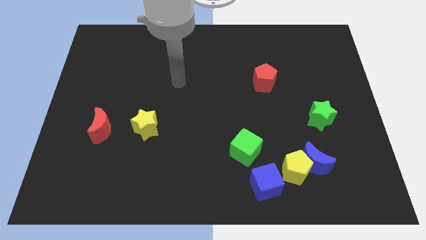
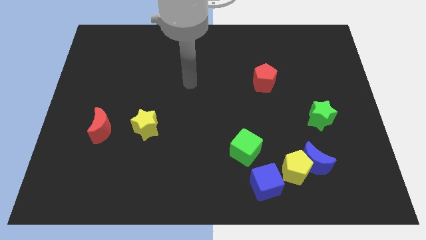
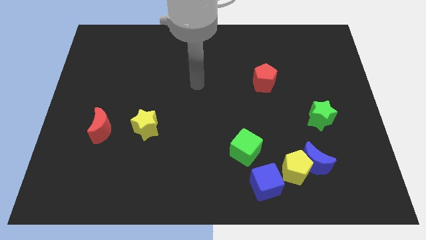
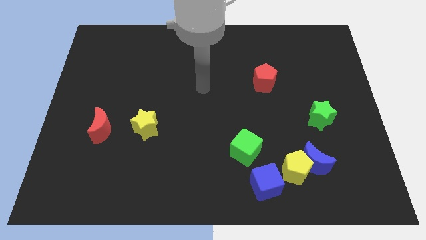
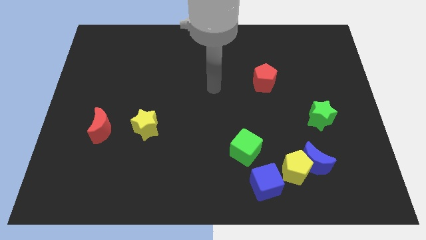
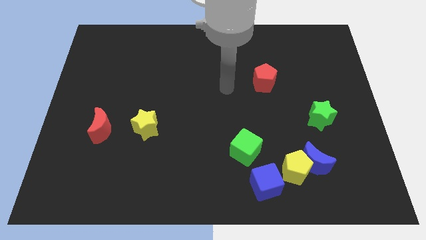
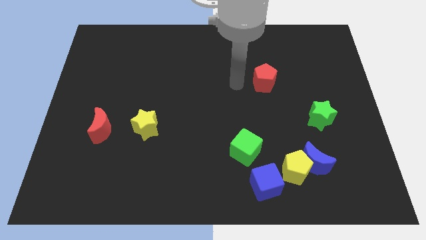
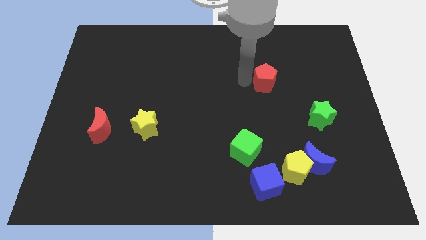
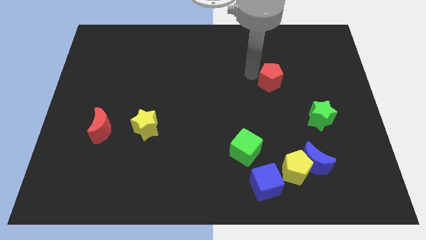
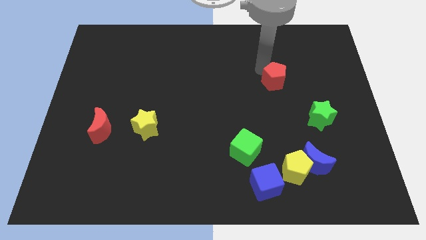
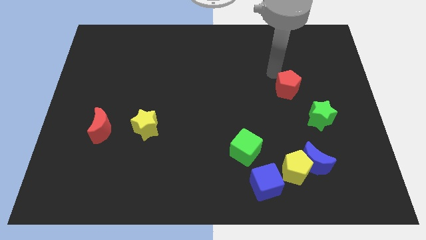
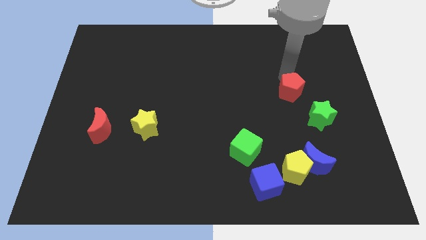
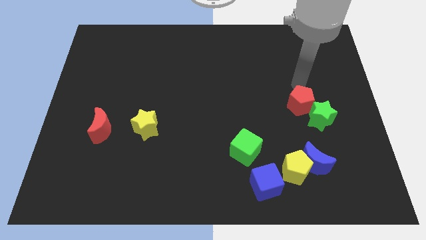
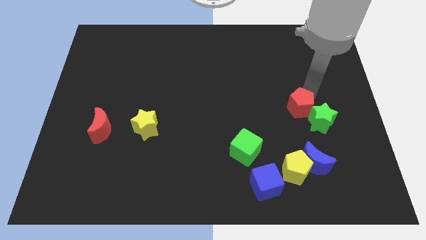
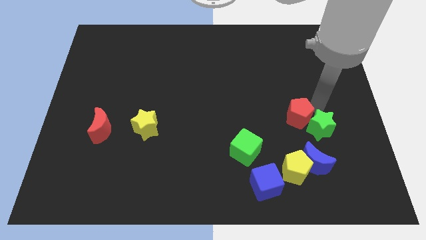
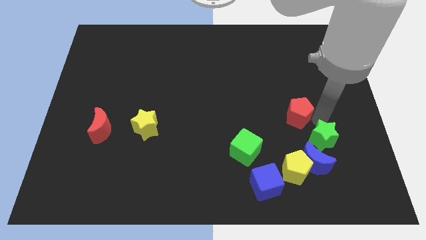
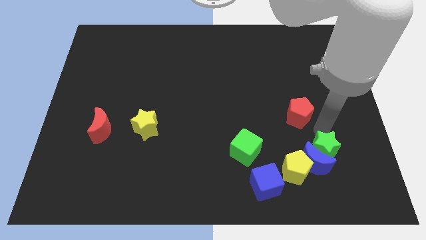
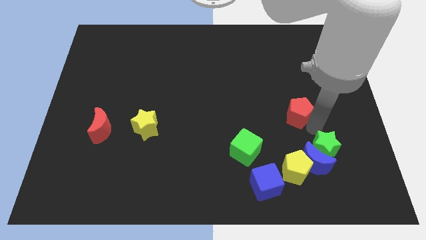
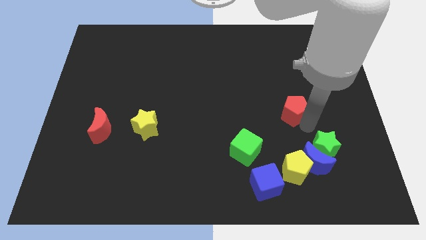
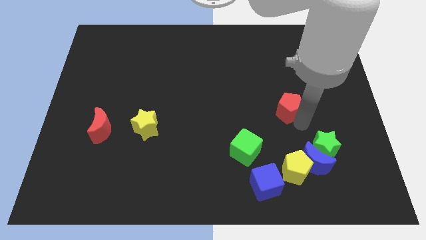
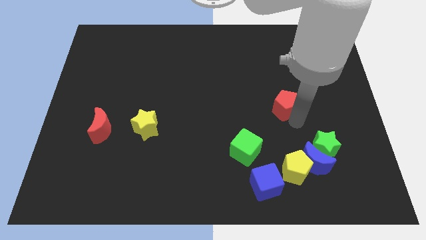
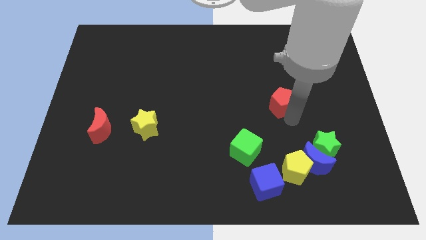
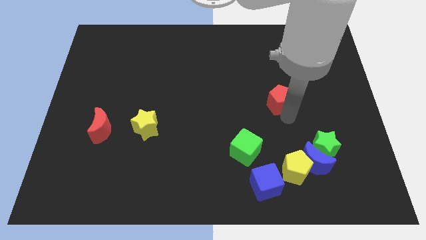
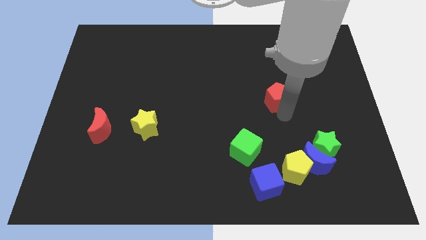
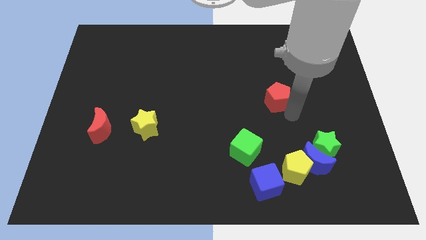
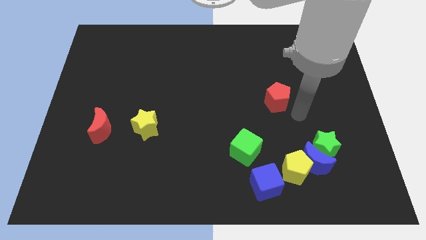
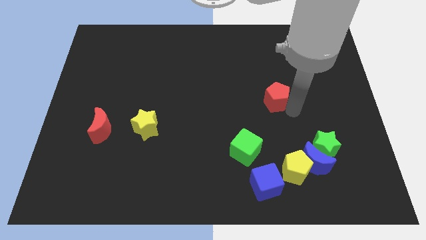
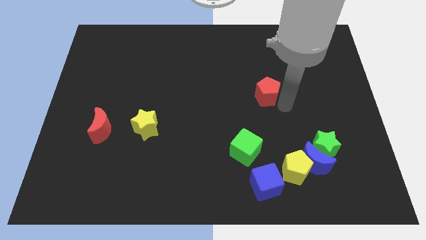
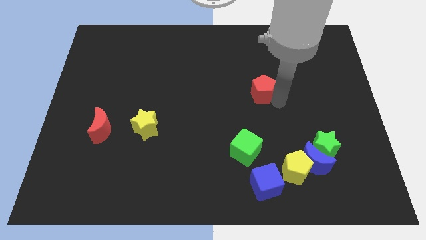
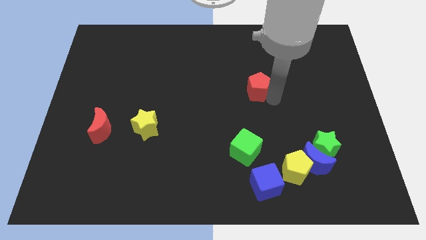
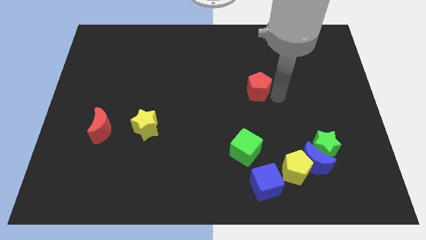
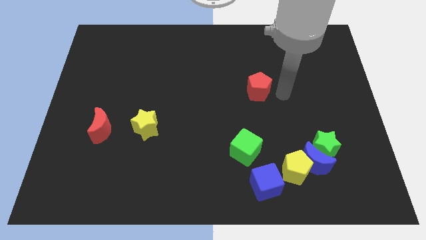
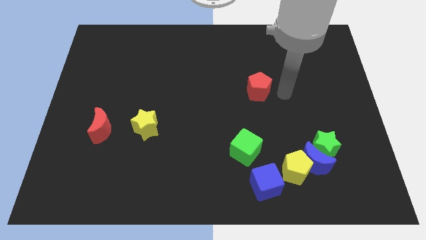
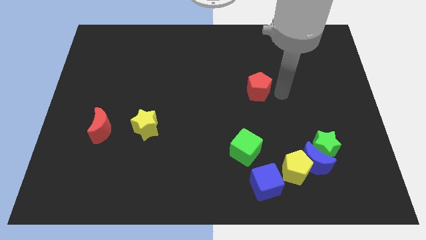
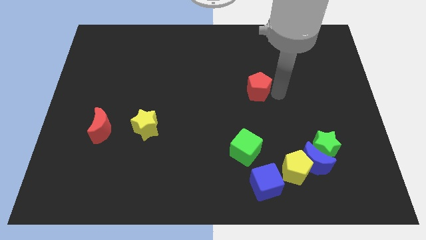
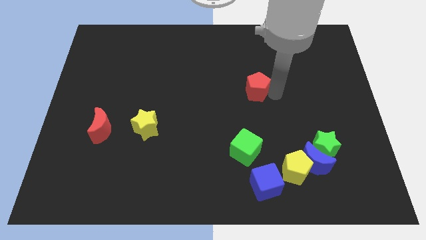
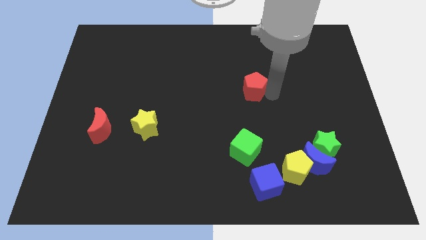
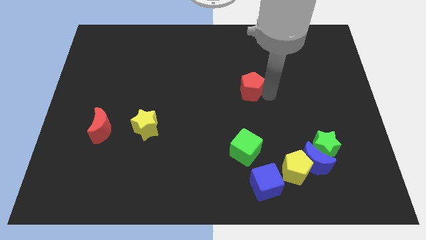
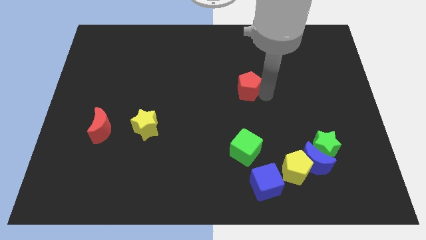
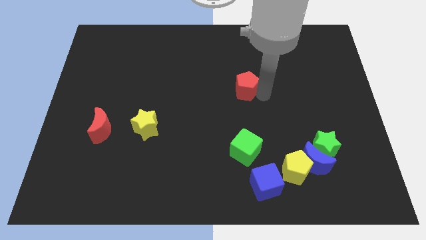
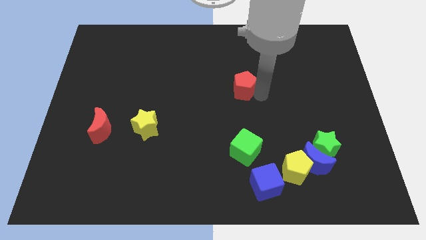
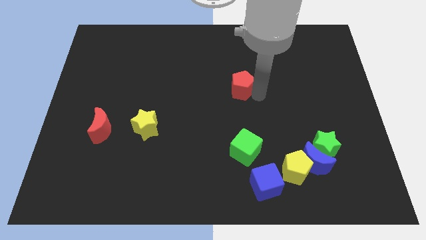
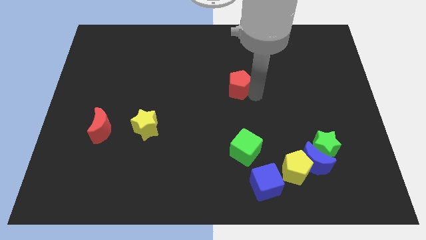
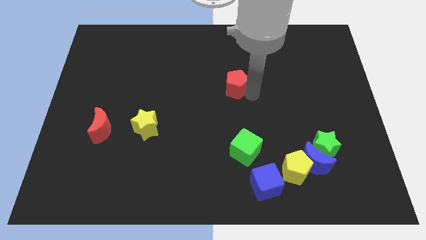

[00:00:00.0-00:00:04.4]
slightly push the red pentagon to the left

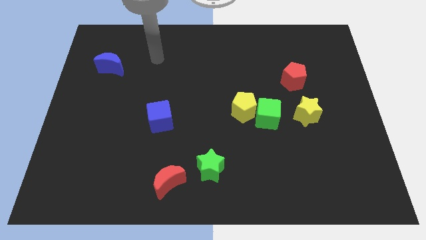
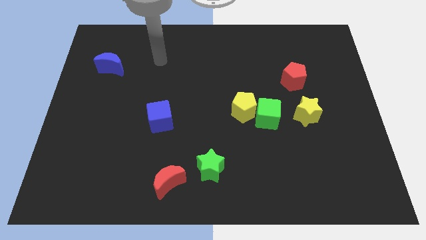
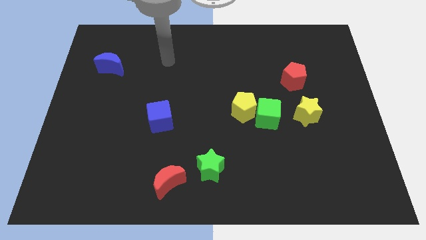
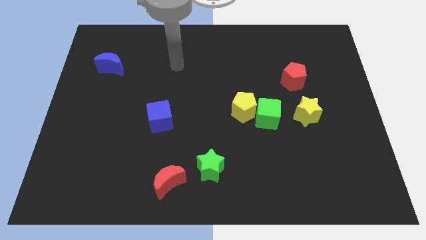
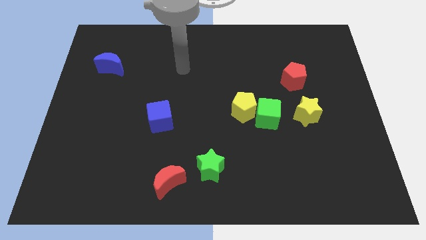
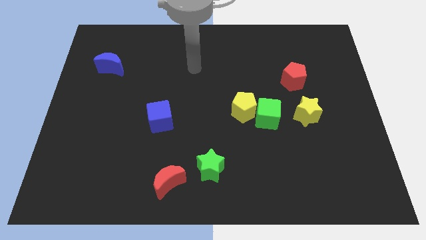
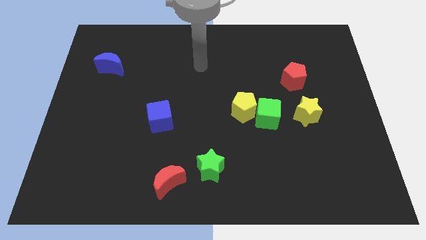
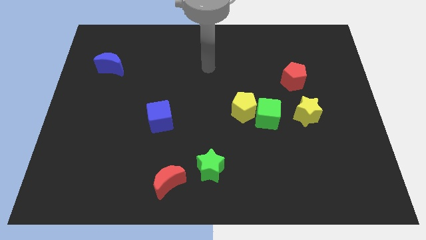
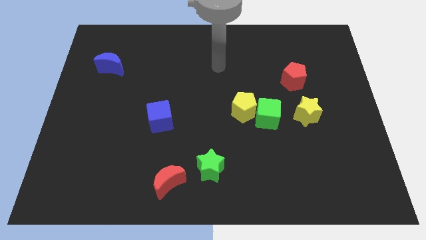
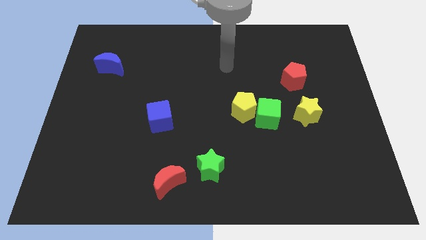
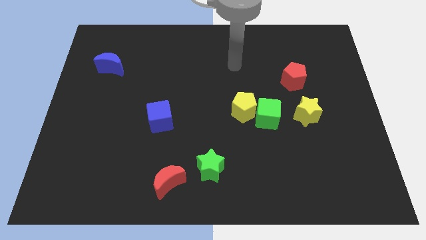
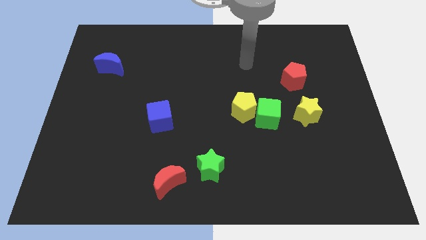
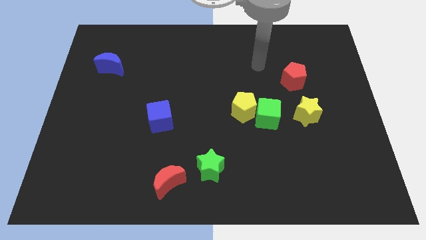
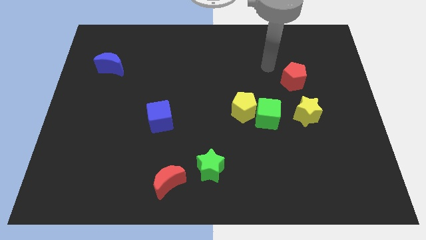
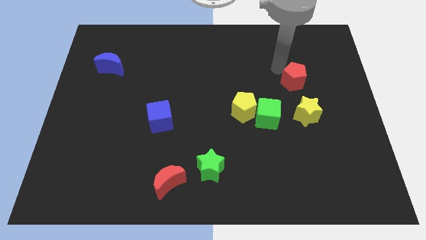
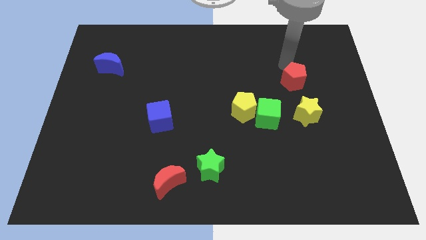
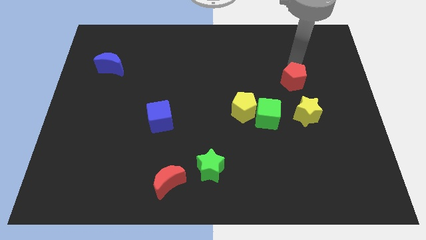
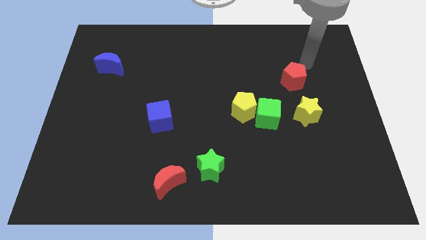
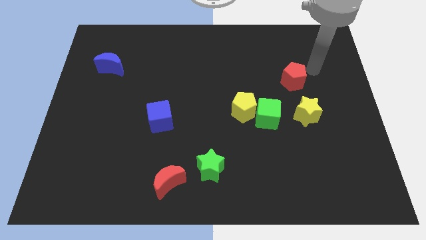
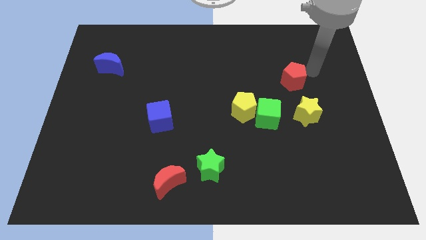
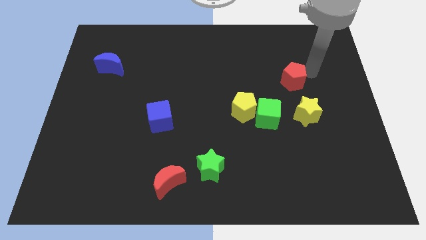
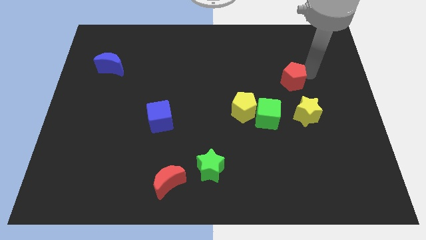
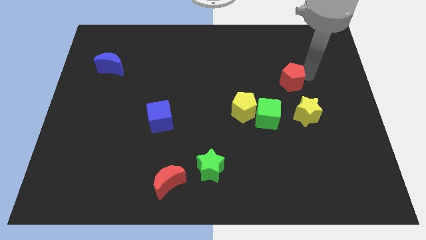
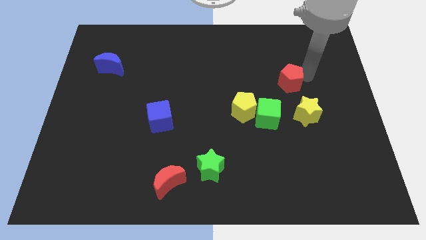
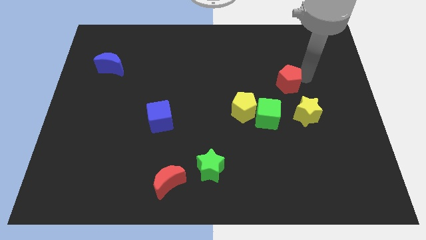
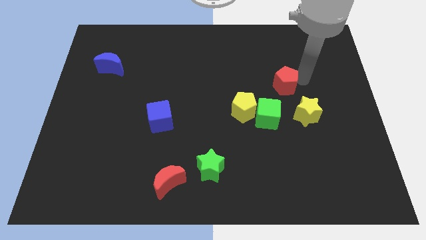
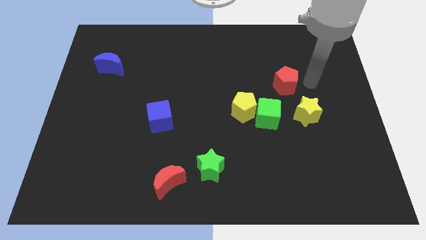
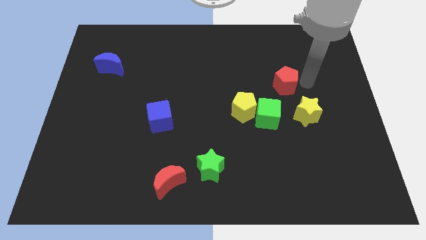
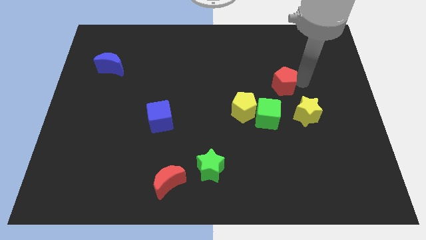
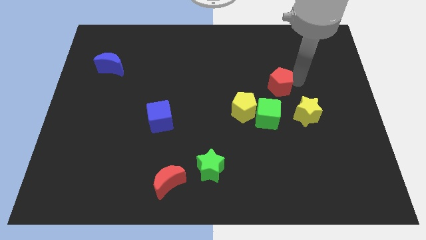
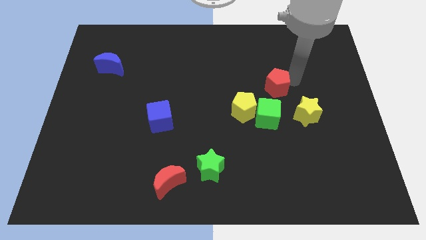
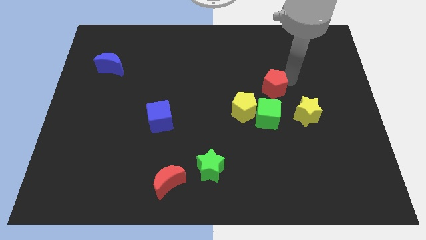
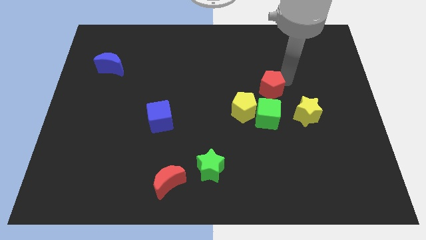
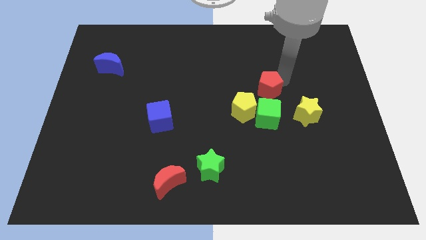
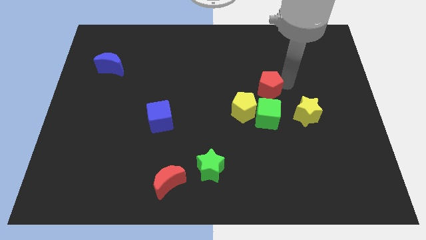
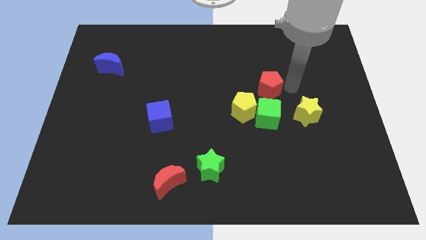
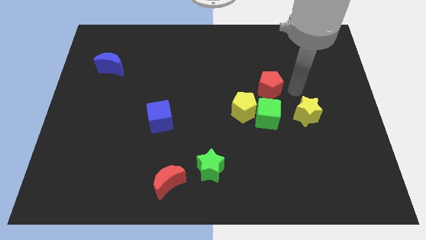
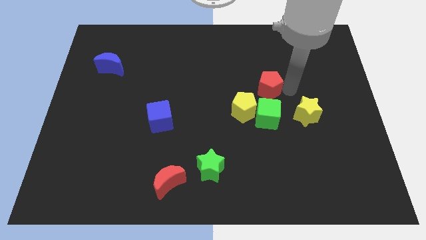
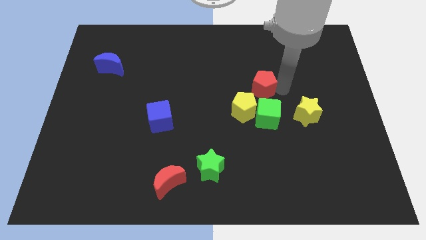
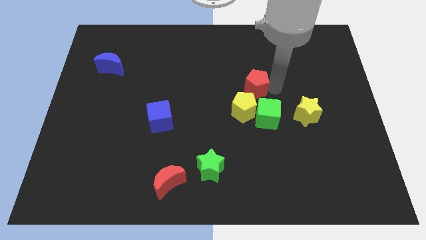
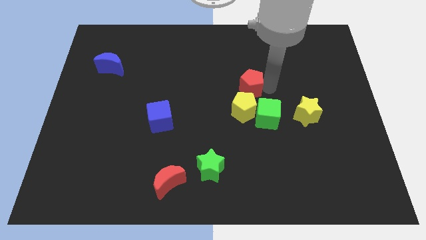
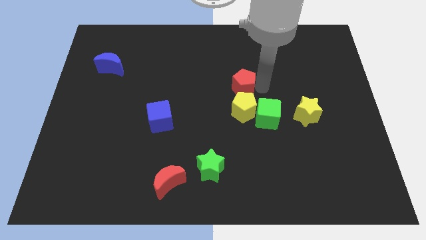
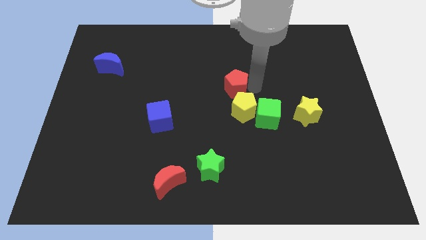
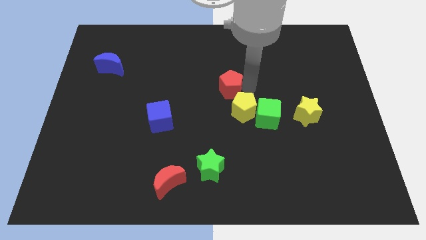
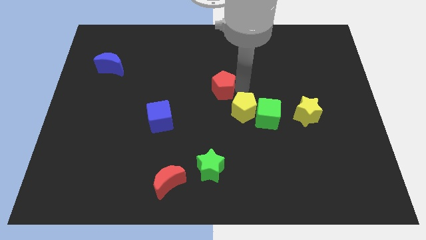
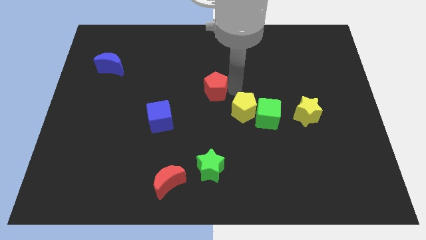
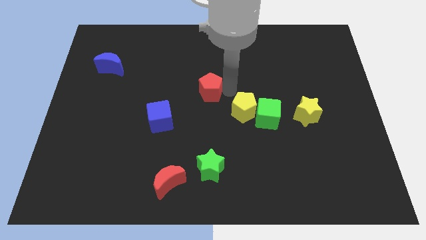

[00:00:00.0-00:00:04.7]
push the red pentagon left
